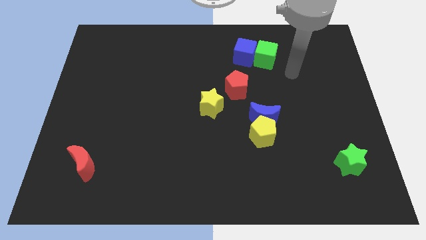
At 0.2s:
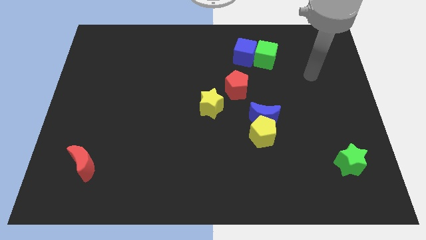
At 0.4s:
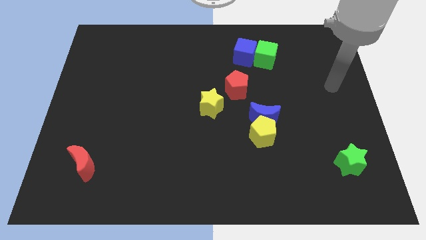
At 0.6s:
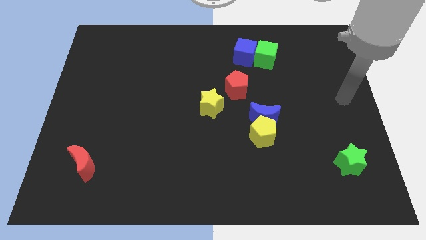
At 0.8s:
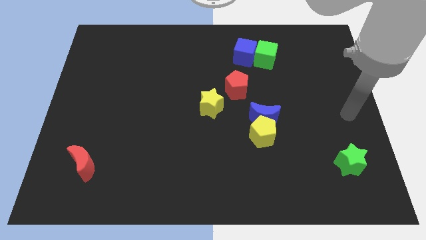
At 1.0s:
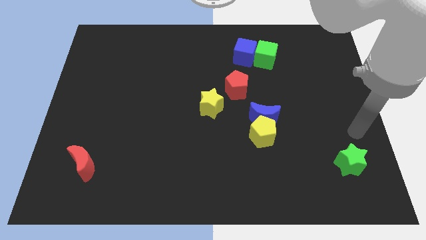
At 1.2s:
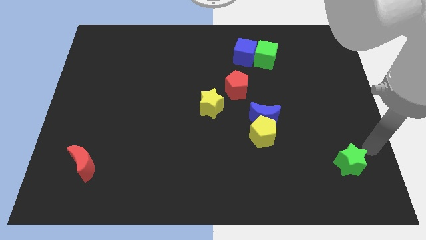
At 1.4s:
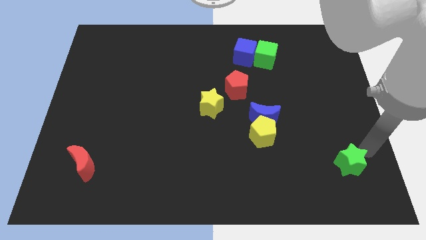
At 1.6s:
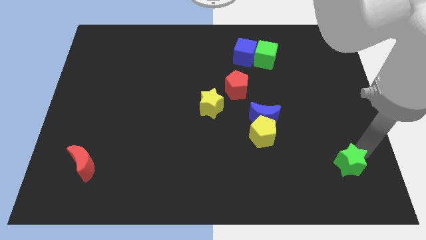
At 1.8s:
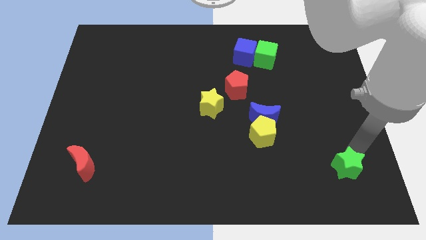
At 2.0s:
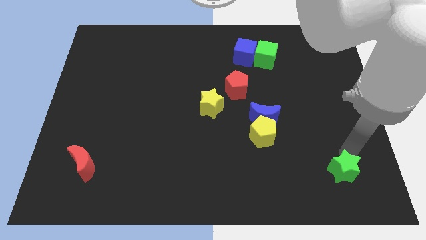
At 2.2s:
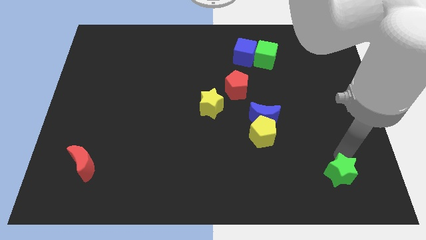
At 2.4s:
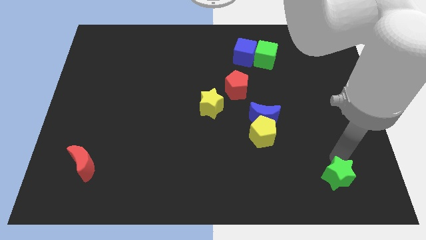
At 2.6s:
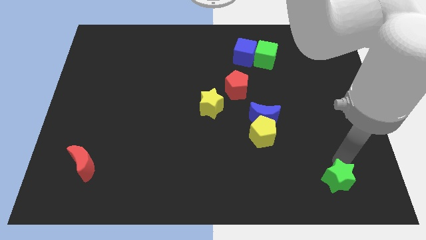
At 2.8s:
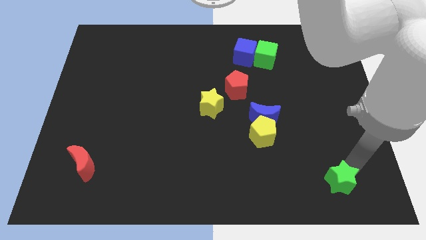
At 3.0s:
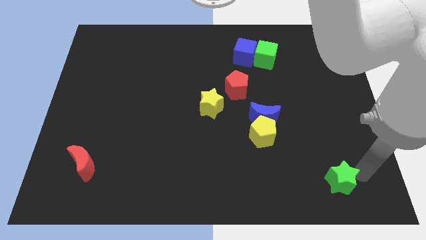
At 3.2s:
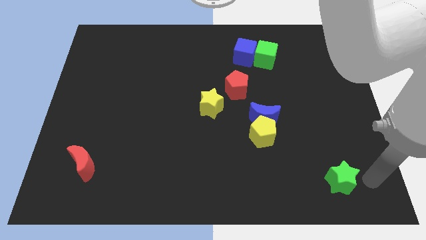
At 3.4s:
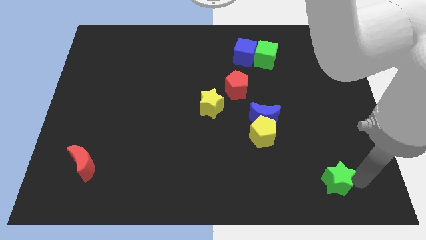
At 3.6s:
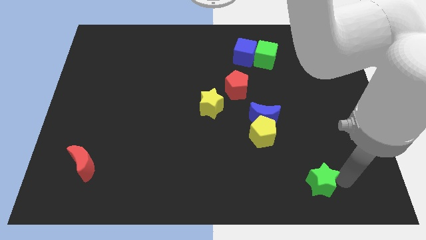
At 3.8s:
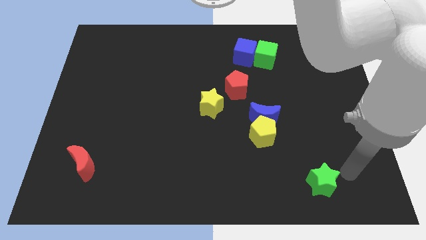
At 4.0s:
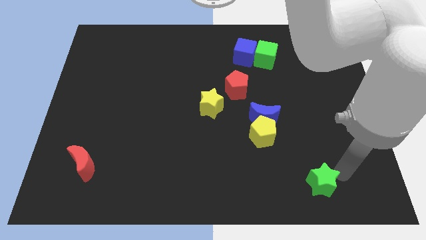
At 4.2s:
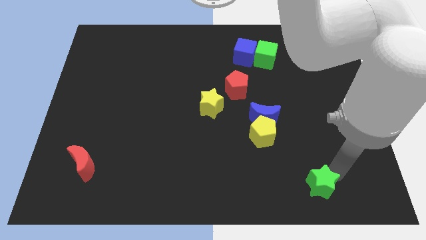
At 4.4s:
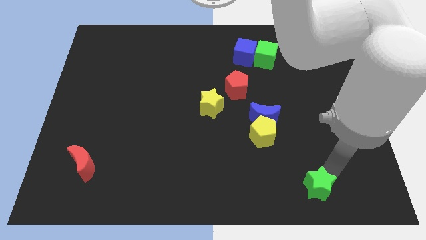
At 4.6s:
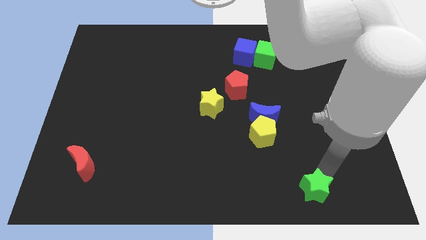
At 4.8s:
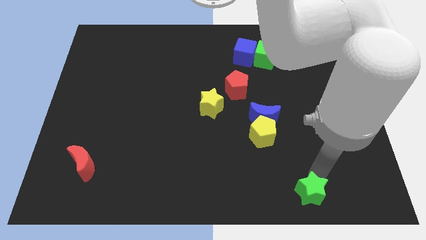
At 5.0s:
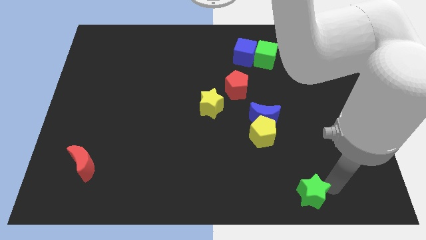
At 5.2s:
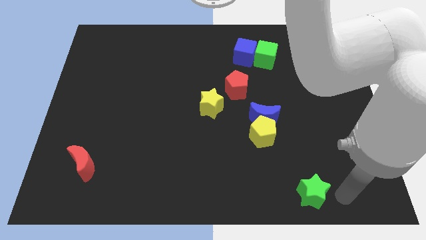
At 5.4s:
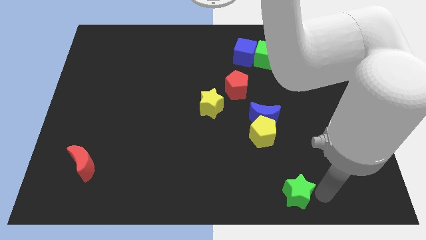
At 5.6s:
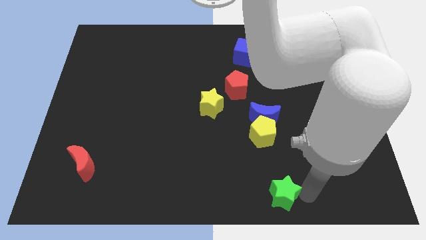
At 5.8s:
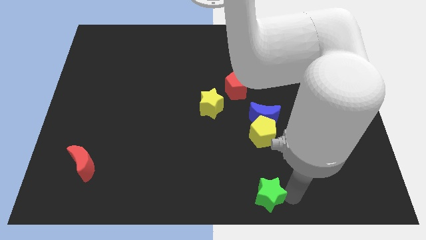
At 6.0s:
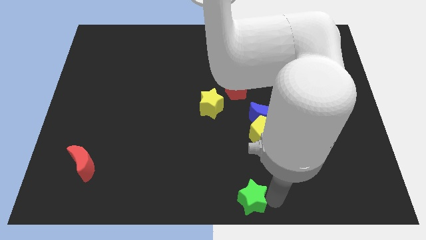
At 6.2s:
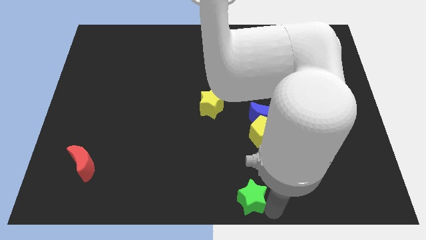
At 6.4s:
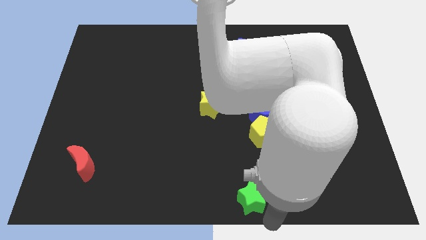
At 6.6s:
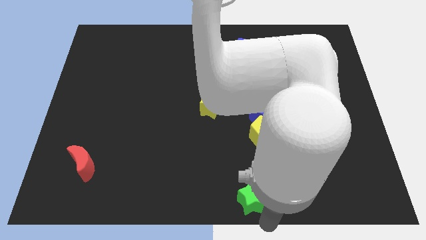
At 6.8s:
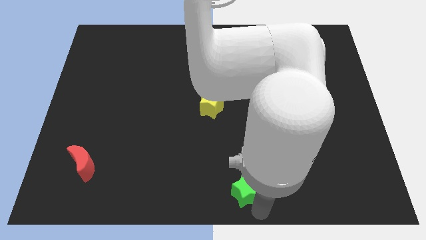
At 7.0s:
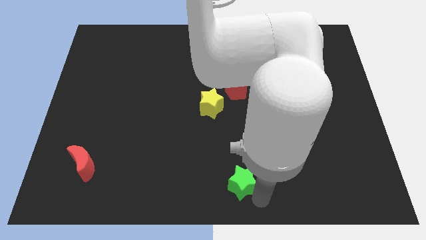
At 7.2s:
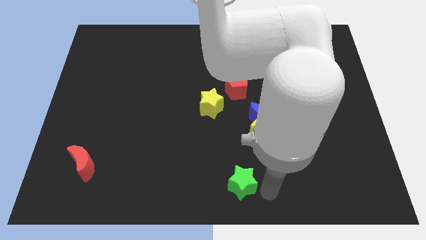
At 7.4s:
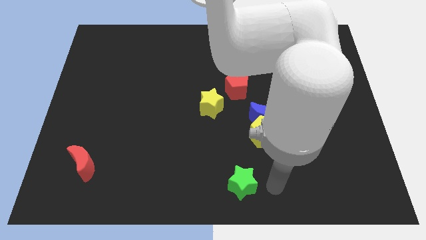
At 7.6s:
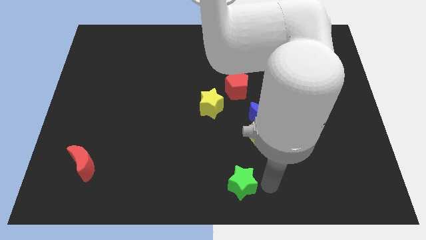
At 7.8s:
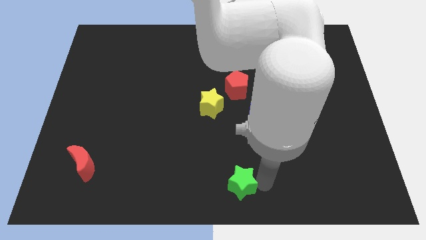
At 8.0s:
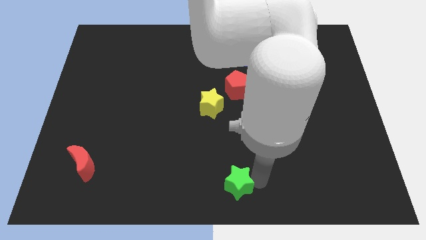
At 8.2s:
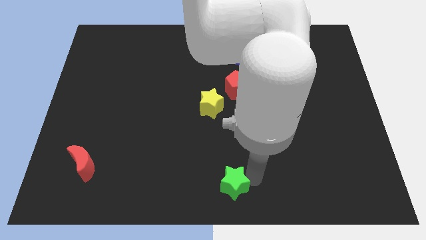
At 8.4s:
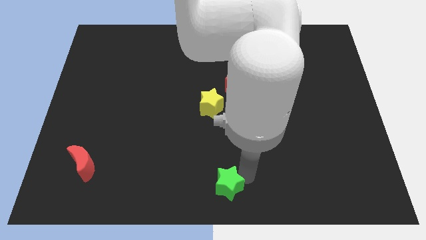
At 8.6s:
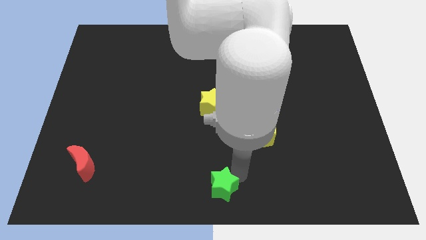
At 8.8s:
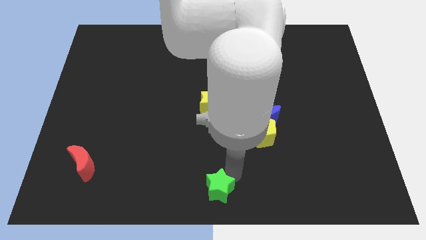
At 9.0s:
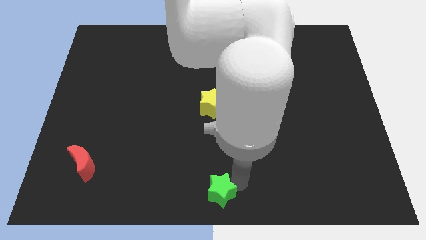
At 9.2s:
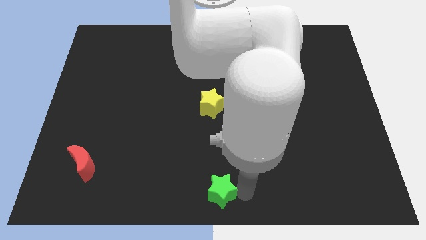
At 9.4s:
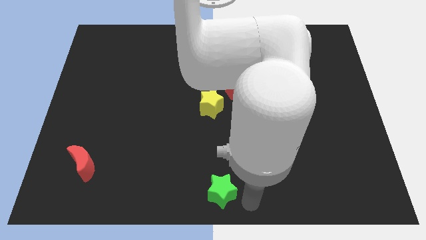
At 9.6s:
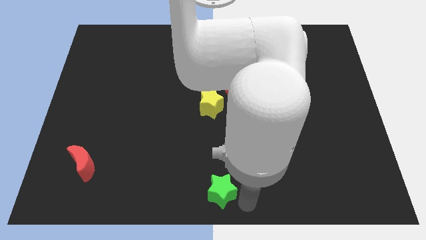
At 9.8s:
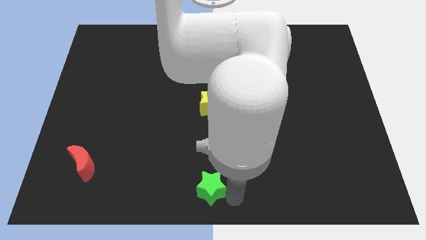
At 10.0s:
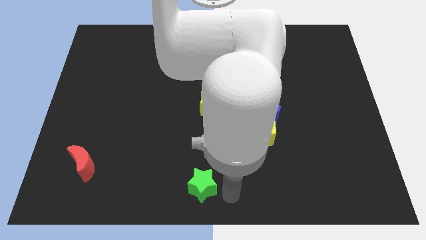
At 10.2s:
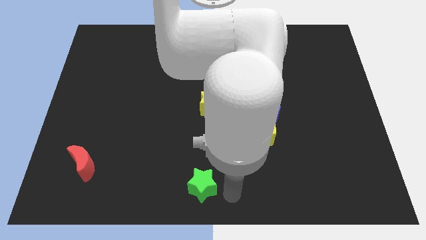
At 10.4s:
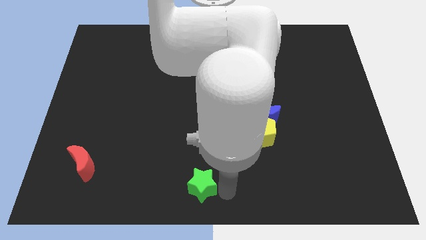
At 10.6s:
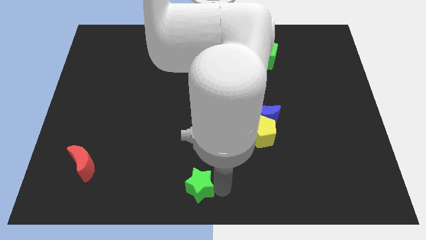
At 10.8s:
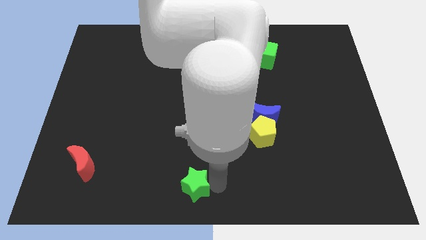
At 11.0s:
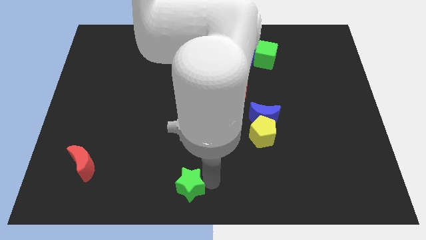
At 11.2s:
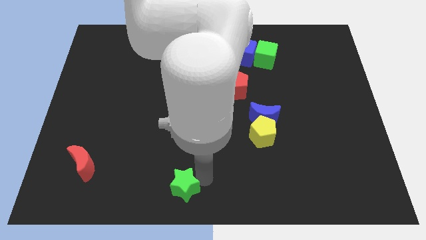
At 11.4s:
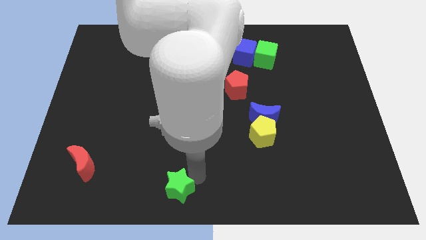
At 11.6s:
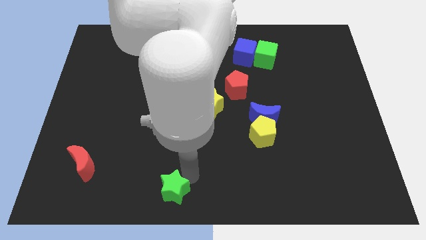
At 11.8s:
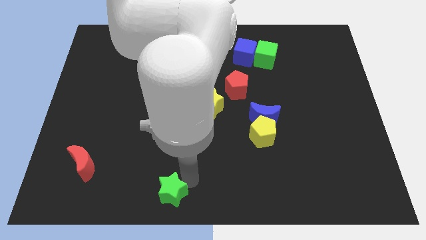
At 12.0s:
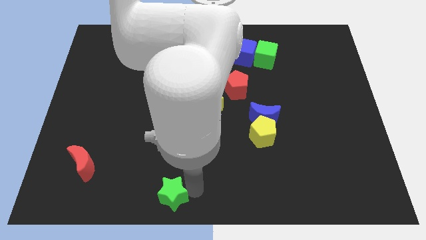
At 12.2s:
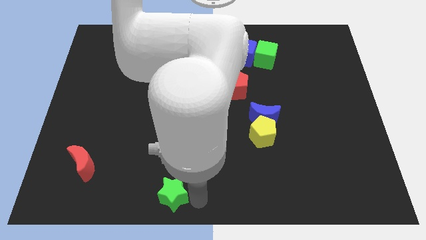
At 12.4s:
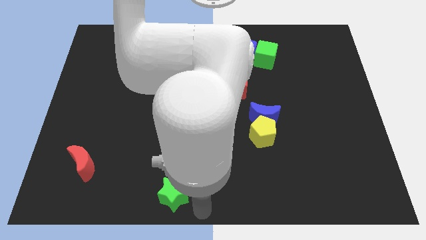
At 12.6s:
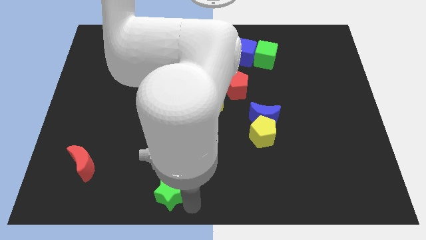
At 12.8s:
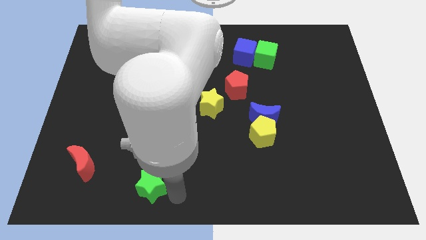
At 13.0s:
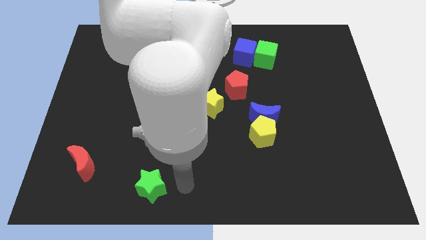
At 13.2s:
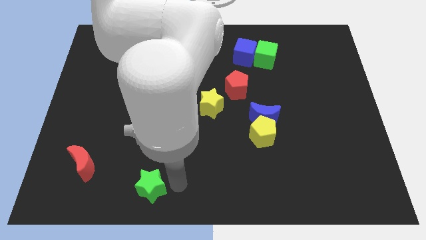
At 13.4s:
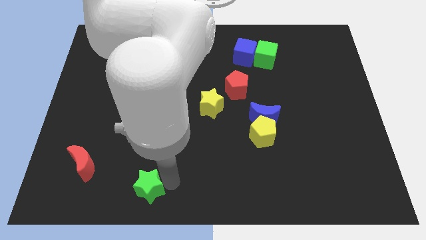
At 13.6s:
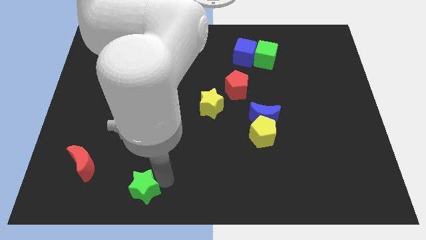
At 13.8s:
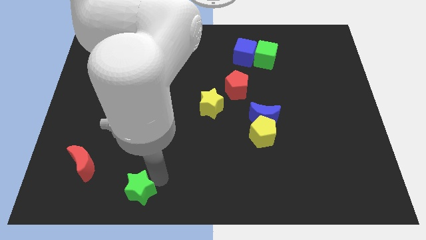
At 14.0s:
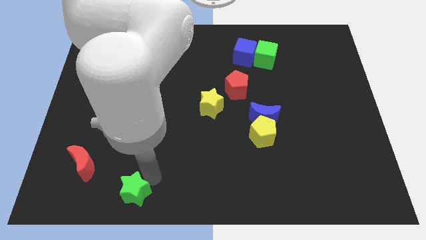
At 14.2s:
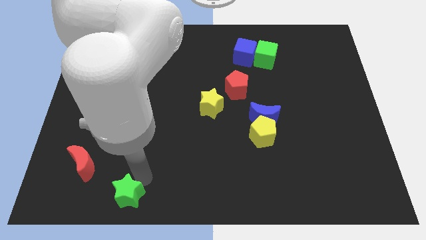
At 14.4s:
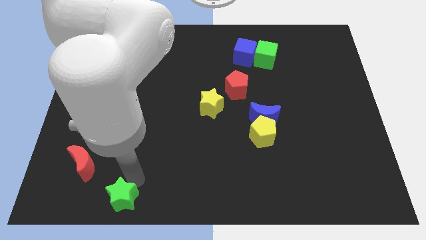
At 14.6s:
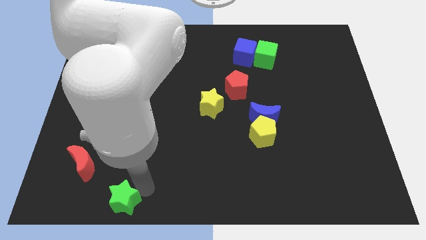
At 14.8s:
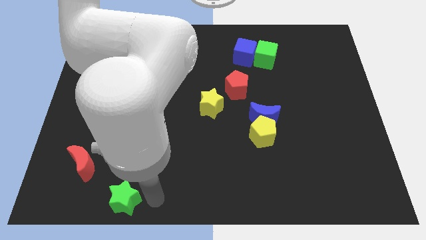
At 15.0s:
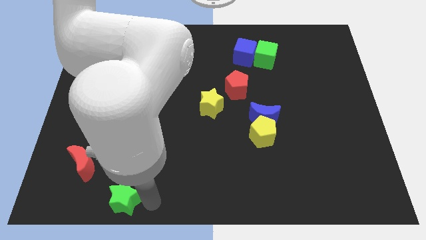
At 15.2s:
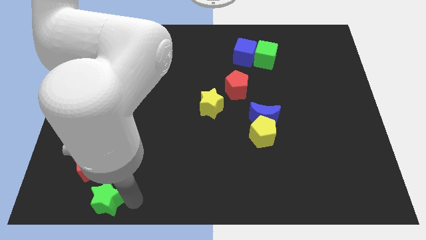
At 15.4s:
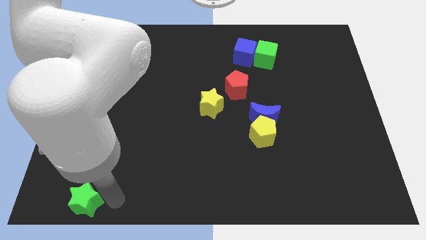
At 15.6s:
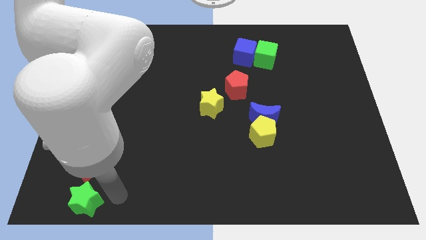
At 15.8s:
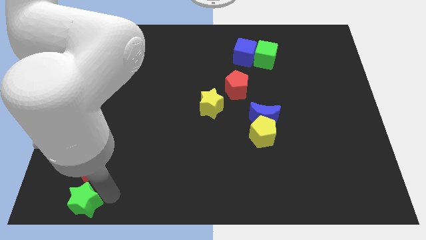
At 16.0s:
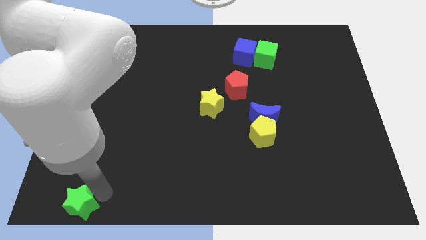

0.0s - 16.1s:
put the green star to the lower left corner
